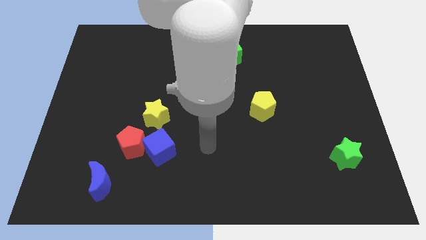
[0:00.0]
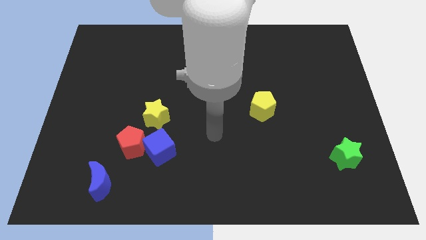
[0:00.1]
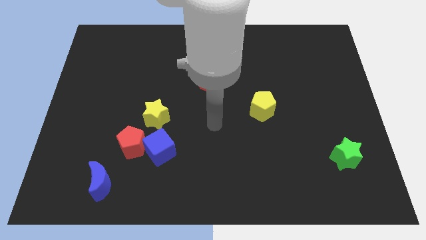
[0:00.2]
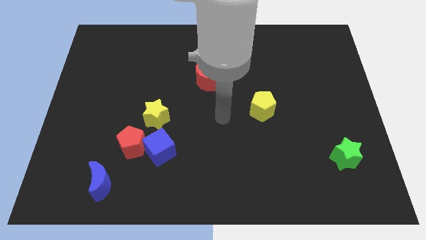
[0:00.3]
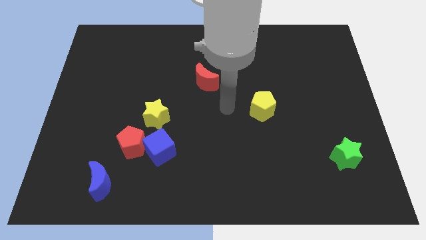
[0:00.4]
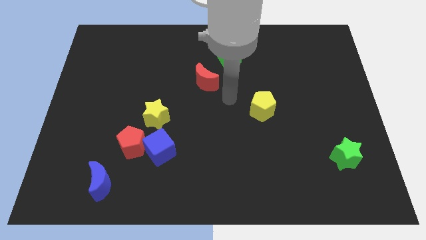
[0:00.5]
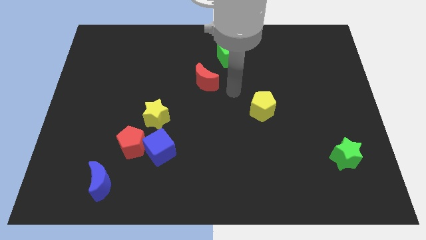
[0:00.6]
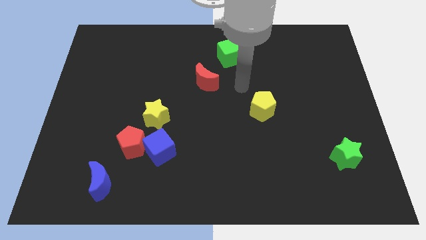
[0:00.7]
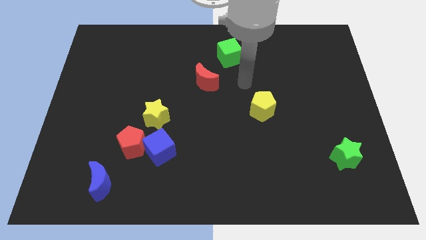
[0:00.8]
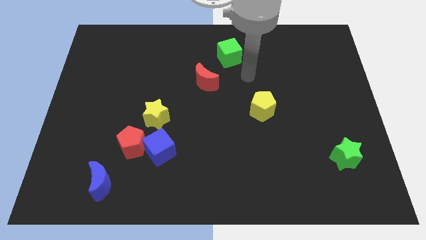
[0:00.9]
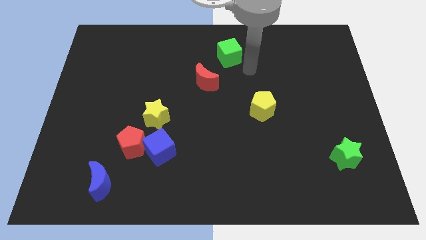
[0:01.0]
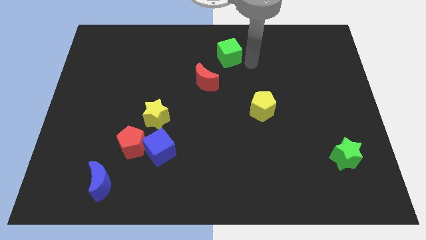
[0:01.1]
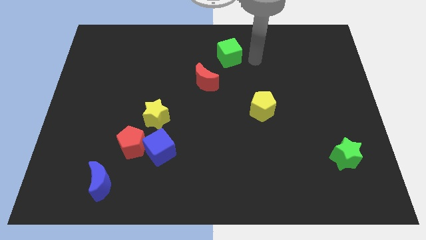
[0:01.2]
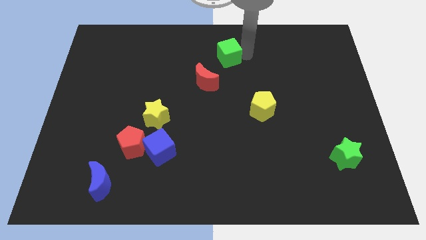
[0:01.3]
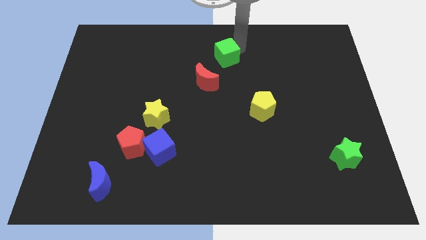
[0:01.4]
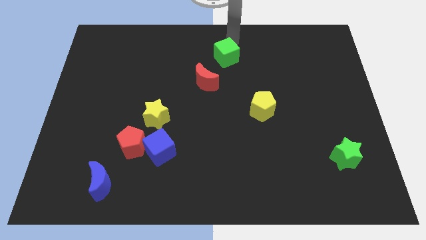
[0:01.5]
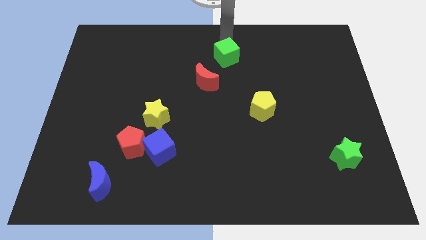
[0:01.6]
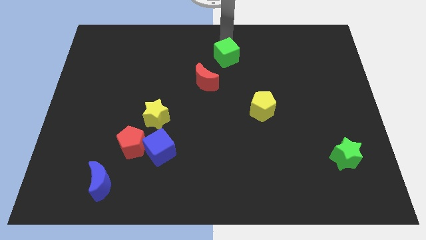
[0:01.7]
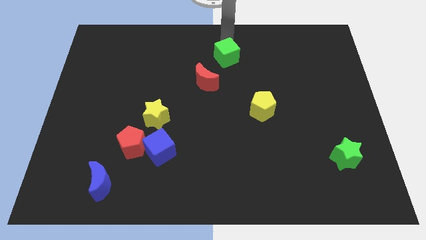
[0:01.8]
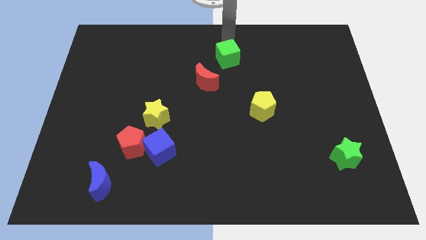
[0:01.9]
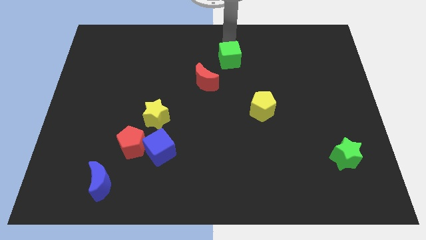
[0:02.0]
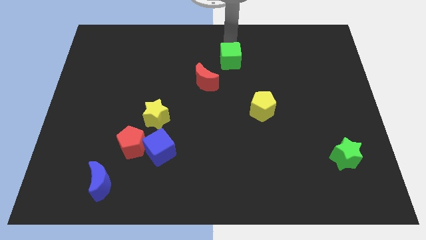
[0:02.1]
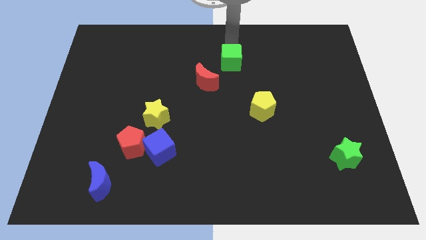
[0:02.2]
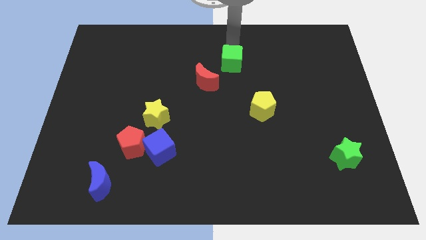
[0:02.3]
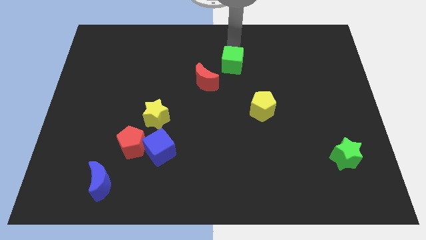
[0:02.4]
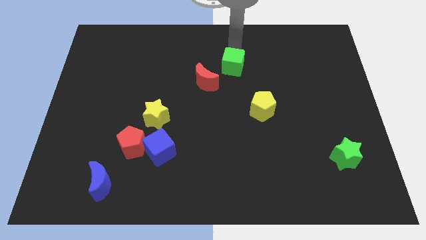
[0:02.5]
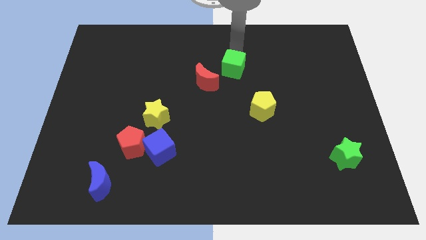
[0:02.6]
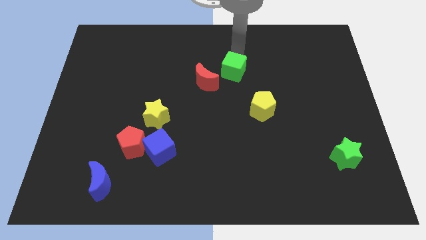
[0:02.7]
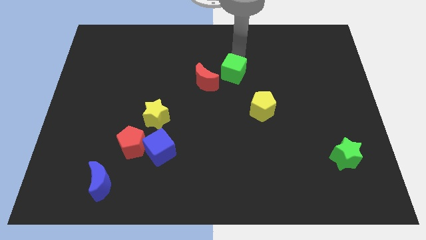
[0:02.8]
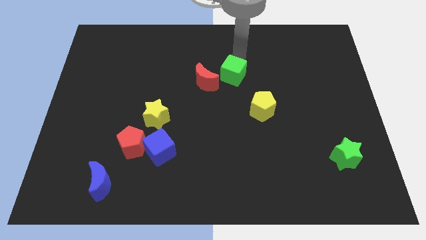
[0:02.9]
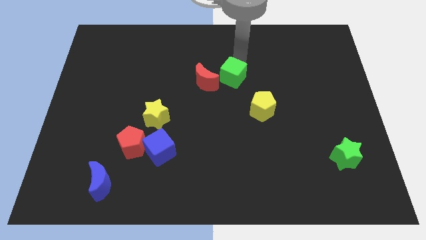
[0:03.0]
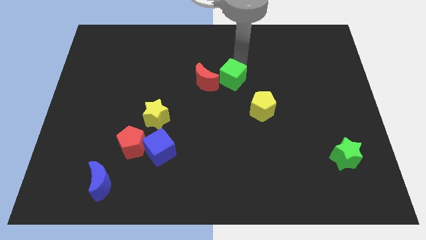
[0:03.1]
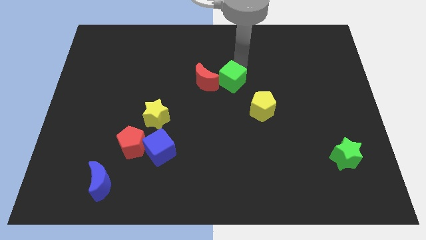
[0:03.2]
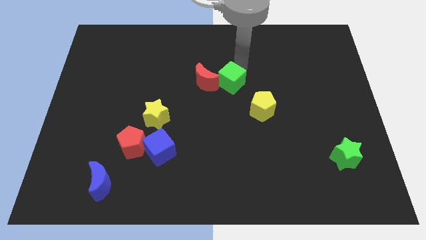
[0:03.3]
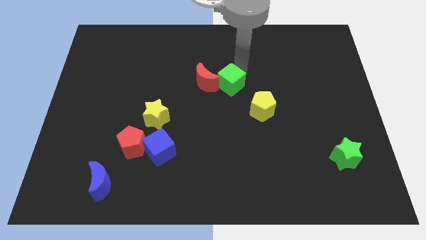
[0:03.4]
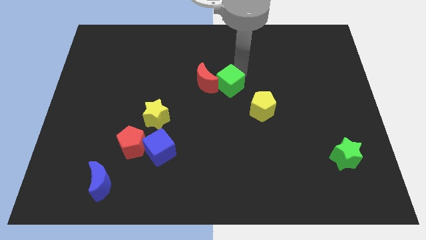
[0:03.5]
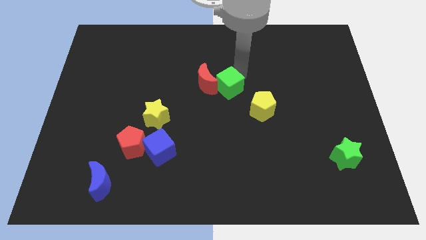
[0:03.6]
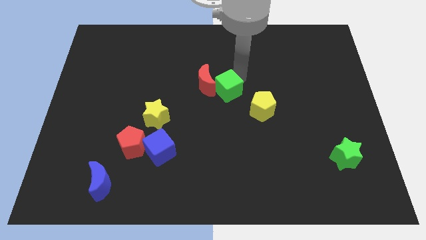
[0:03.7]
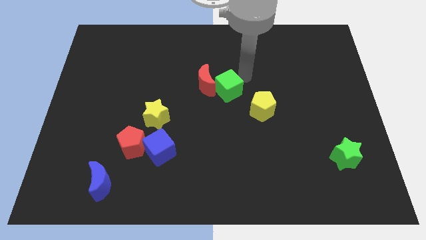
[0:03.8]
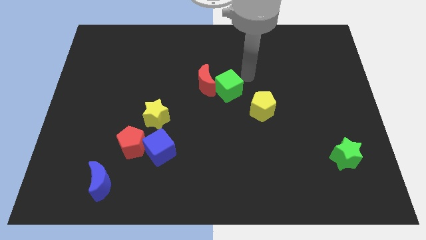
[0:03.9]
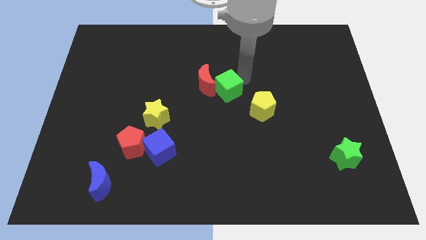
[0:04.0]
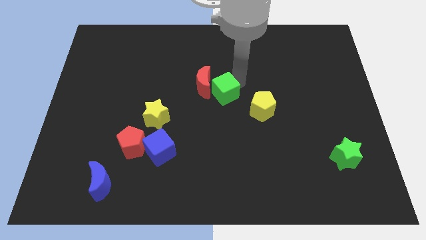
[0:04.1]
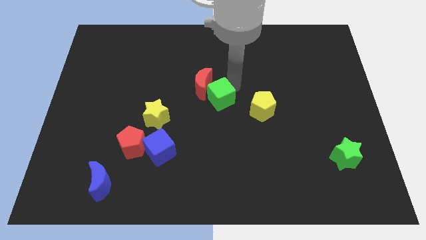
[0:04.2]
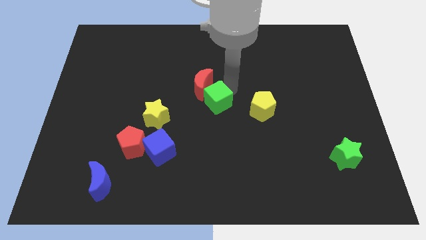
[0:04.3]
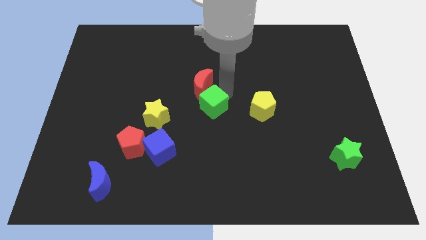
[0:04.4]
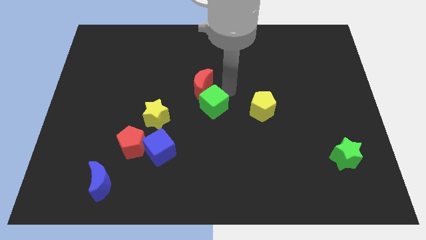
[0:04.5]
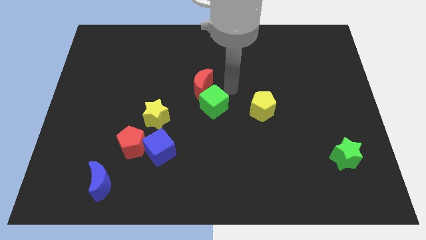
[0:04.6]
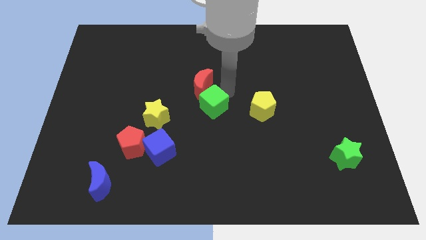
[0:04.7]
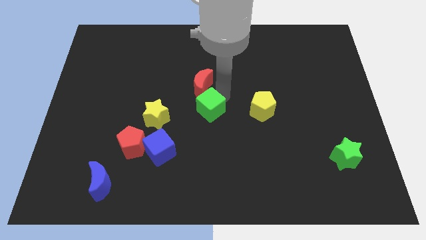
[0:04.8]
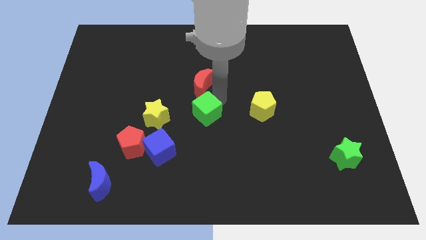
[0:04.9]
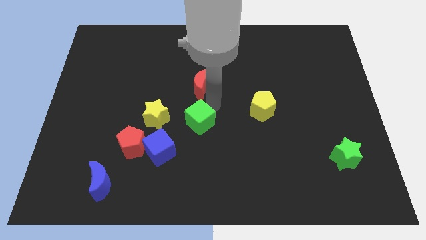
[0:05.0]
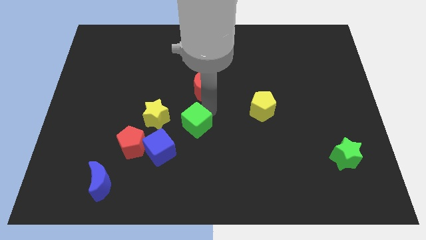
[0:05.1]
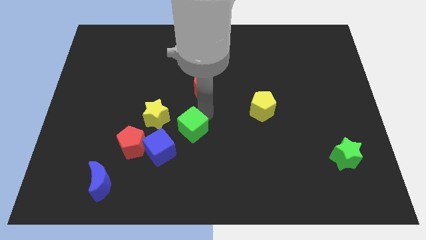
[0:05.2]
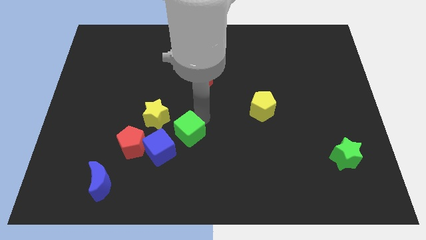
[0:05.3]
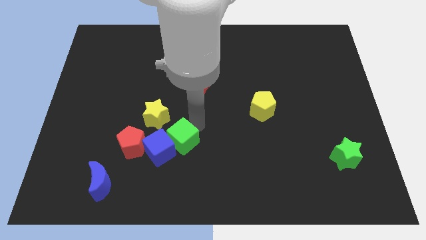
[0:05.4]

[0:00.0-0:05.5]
move the green cube to the blue cube

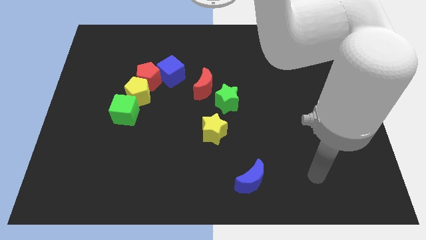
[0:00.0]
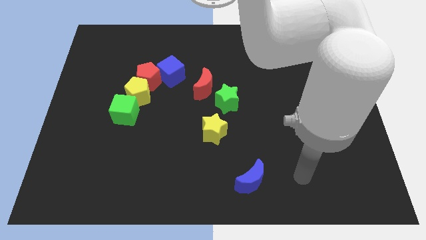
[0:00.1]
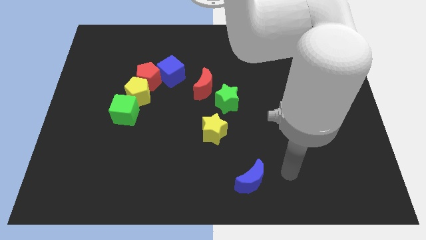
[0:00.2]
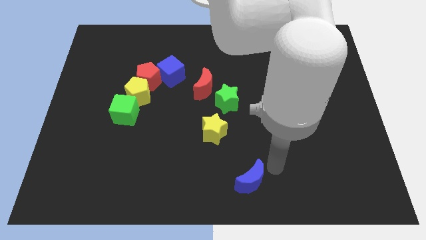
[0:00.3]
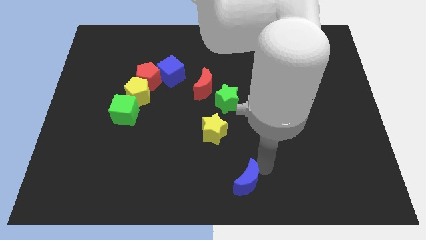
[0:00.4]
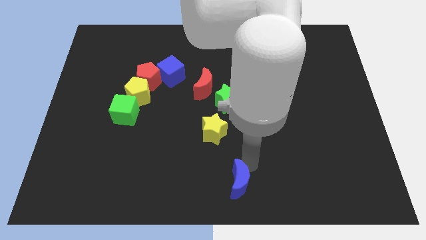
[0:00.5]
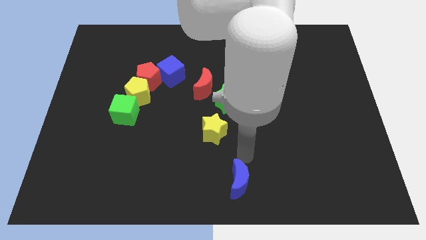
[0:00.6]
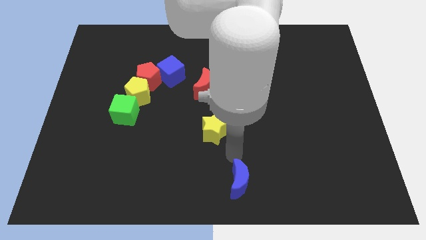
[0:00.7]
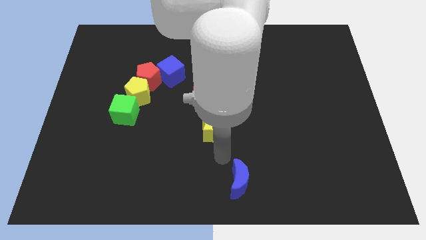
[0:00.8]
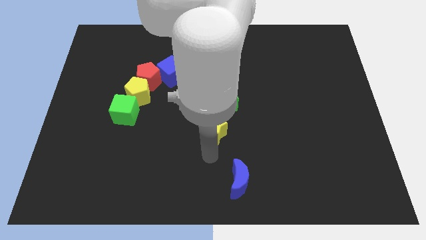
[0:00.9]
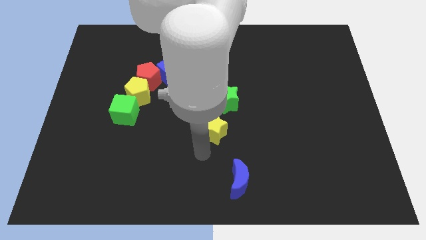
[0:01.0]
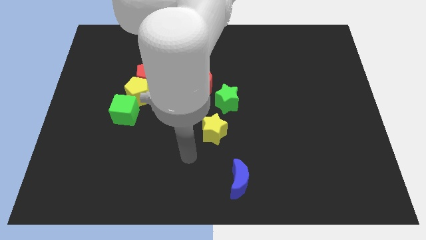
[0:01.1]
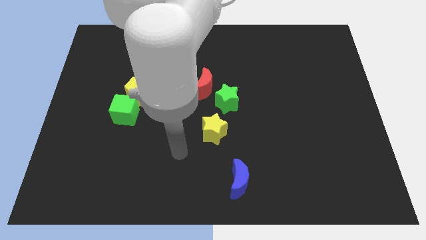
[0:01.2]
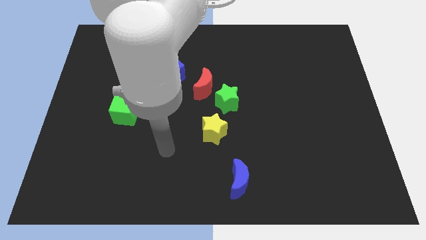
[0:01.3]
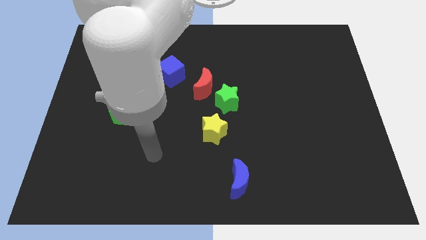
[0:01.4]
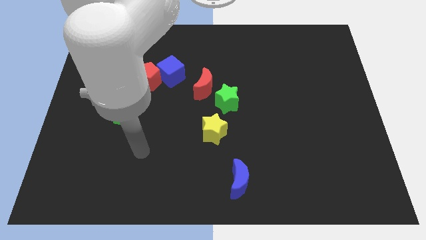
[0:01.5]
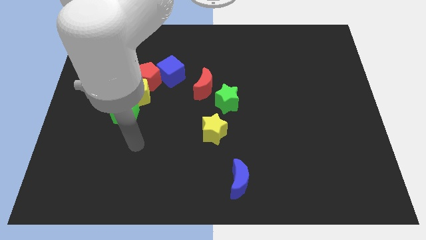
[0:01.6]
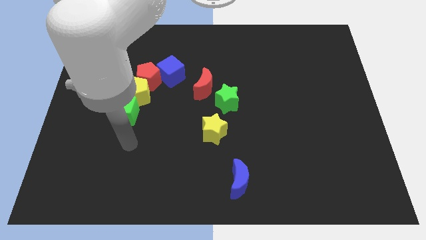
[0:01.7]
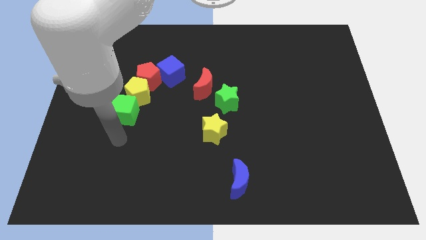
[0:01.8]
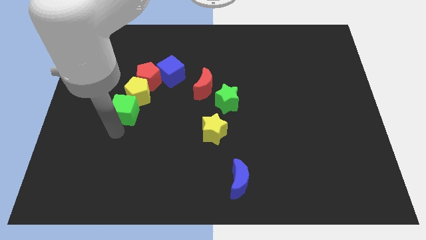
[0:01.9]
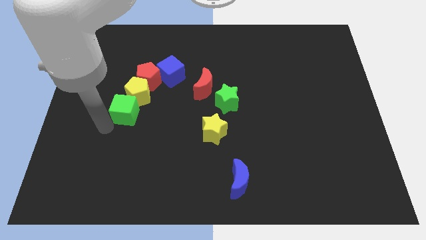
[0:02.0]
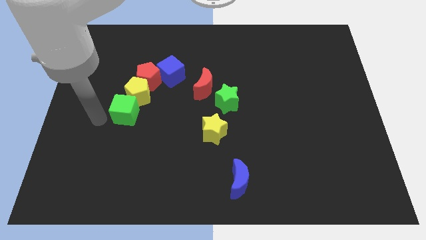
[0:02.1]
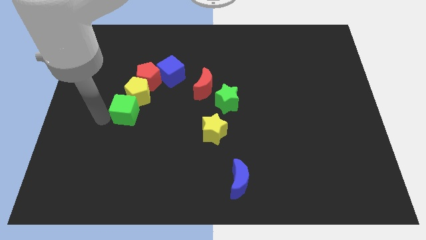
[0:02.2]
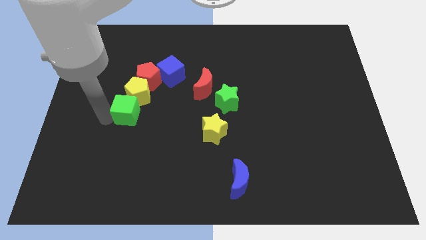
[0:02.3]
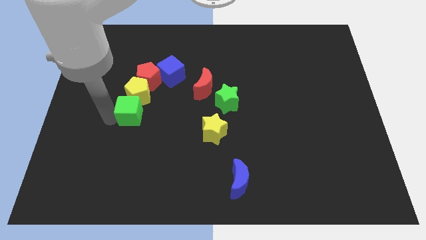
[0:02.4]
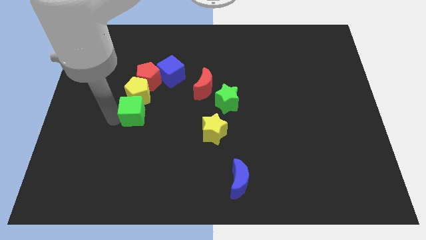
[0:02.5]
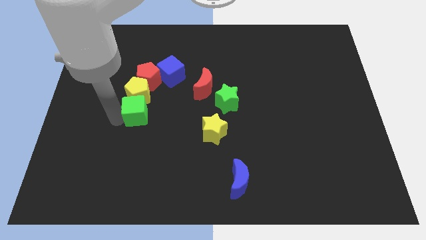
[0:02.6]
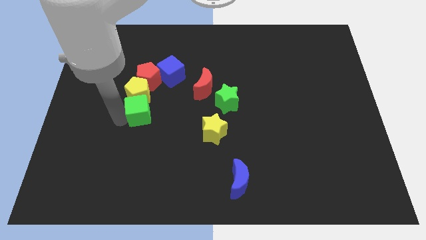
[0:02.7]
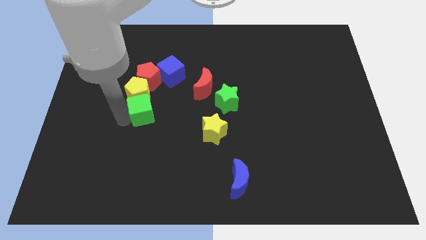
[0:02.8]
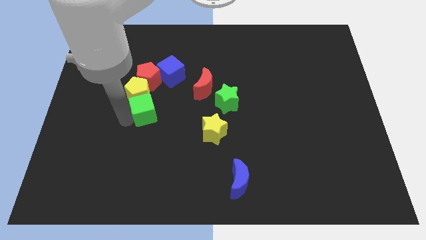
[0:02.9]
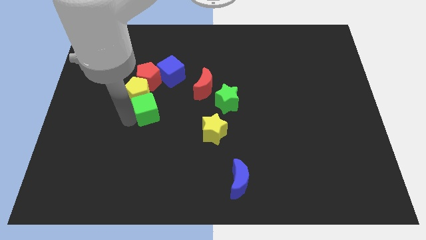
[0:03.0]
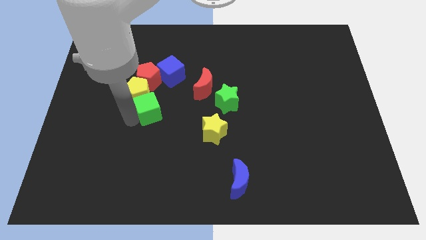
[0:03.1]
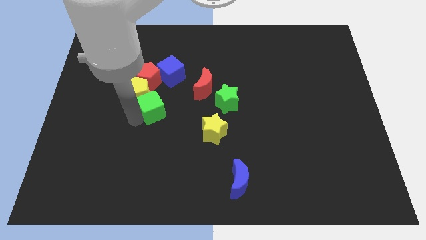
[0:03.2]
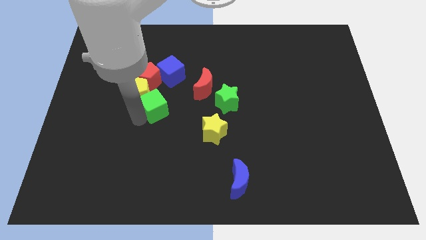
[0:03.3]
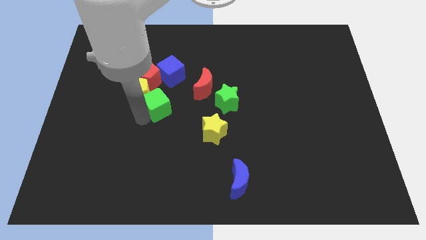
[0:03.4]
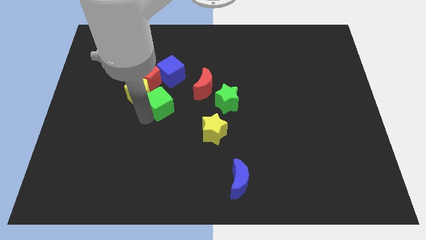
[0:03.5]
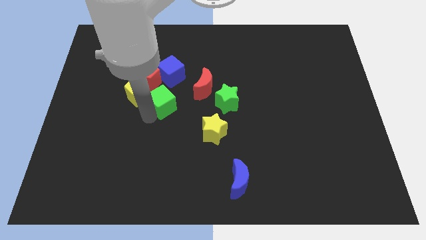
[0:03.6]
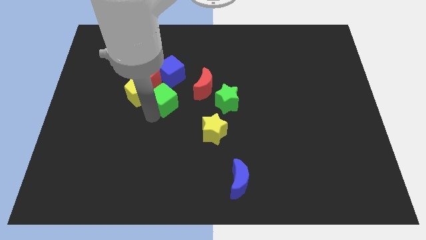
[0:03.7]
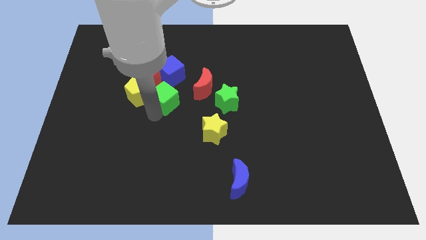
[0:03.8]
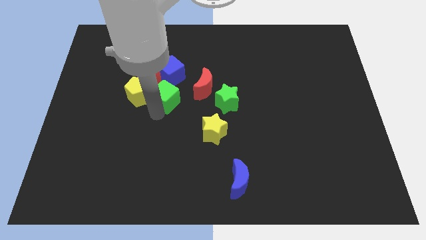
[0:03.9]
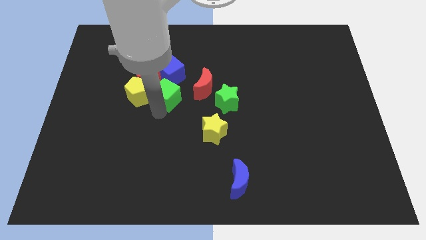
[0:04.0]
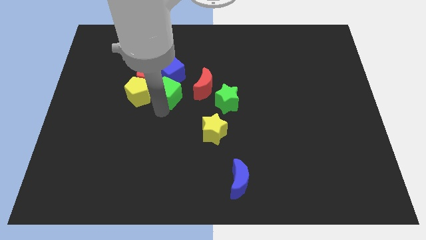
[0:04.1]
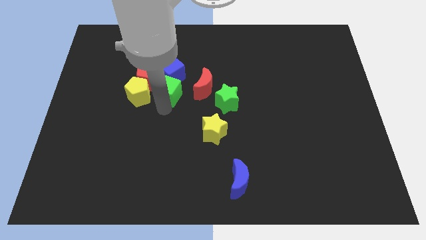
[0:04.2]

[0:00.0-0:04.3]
put the green cube towards the blue cube
